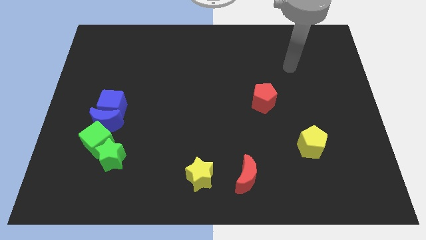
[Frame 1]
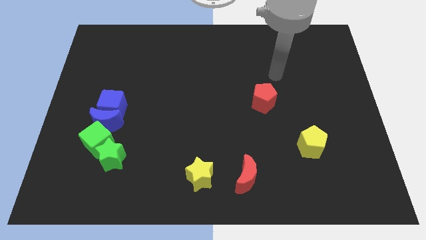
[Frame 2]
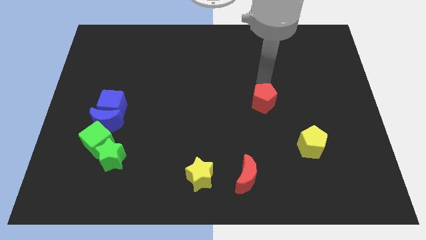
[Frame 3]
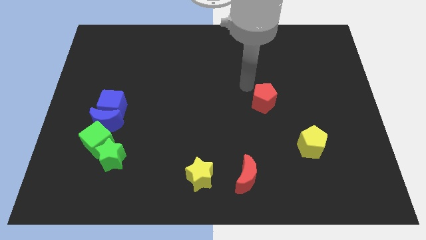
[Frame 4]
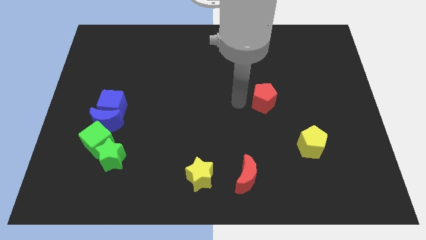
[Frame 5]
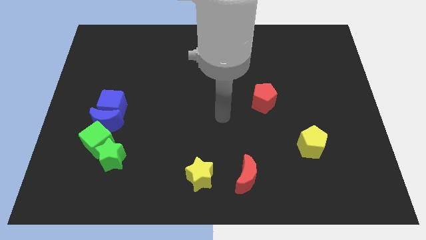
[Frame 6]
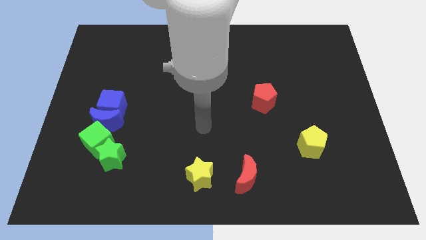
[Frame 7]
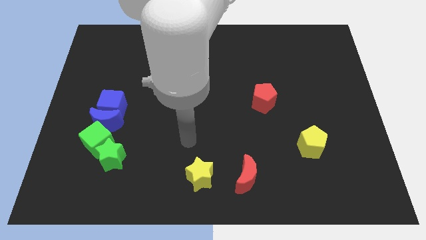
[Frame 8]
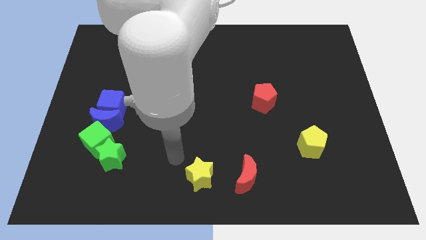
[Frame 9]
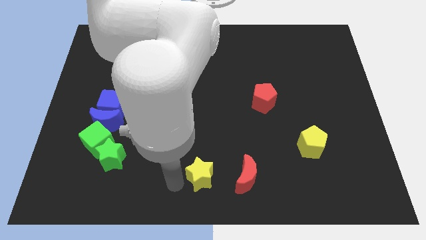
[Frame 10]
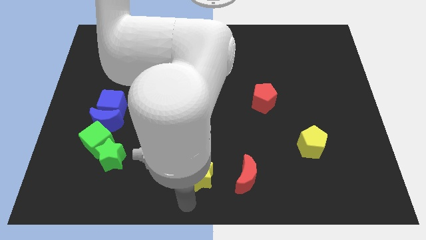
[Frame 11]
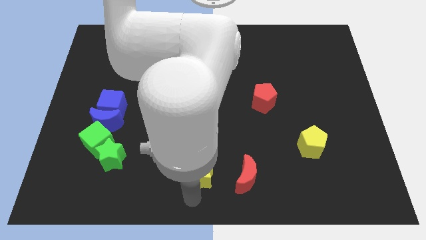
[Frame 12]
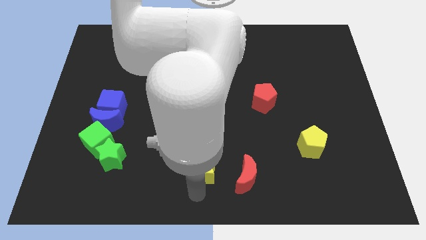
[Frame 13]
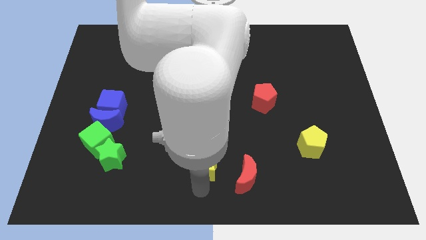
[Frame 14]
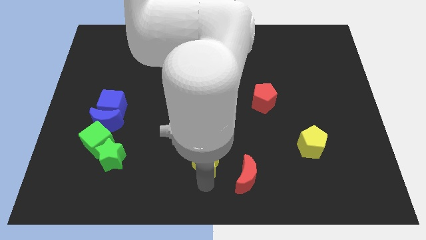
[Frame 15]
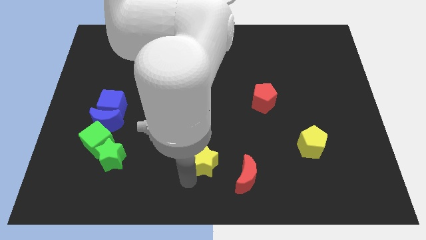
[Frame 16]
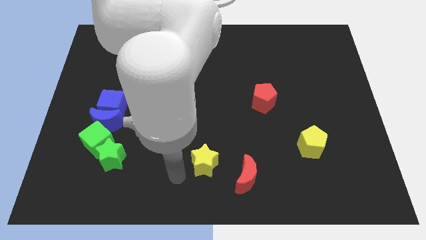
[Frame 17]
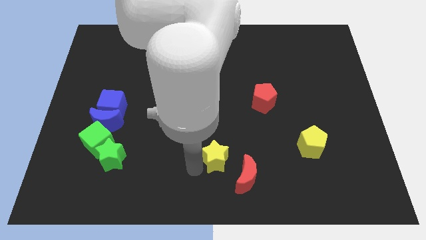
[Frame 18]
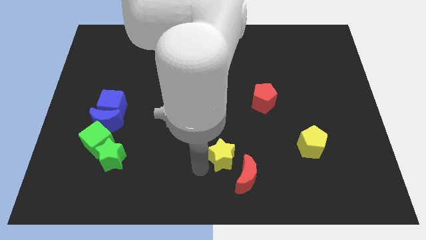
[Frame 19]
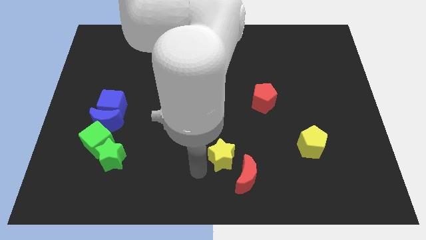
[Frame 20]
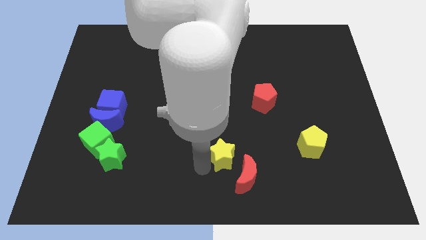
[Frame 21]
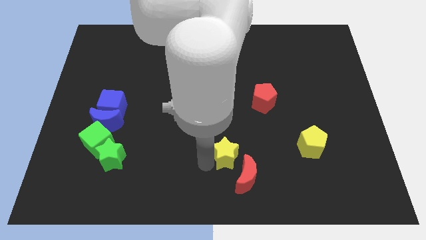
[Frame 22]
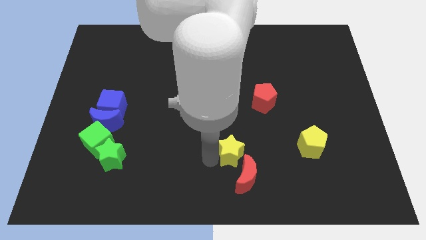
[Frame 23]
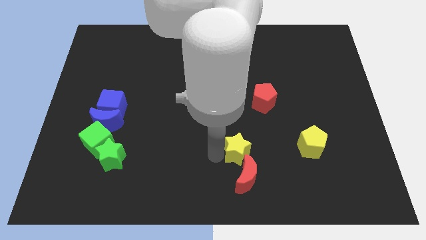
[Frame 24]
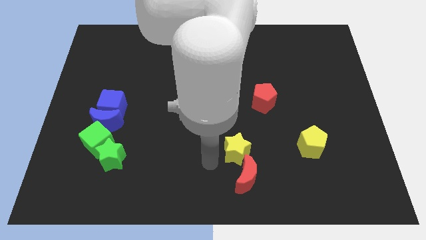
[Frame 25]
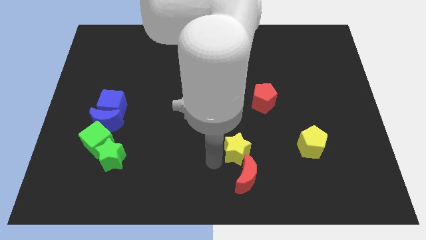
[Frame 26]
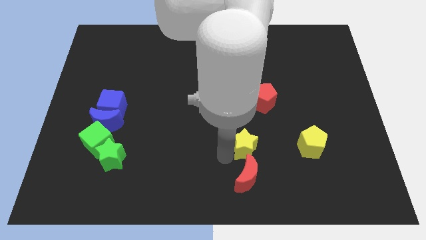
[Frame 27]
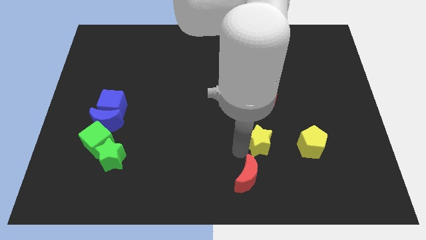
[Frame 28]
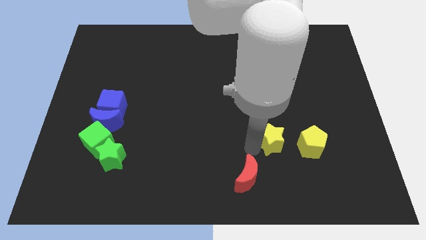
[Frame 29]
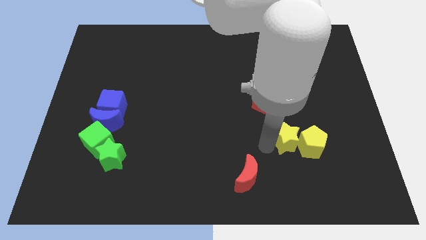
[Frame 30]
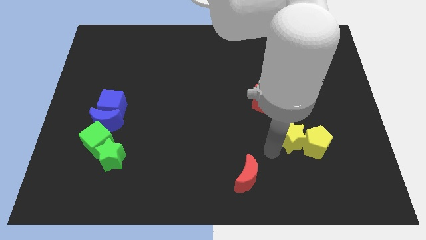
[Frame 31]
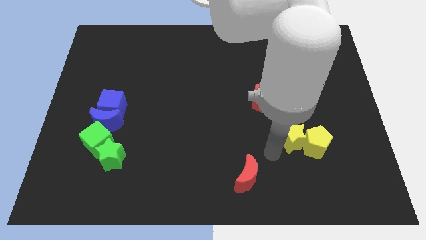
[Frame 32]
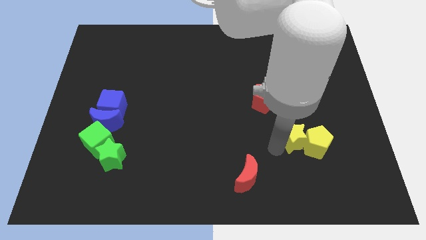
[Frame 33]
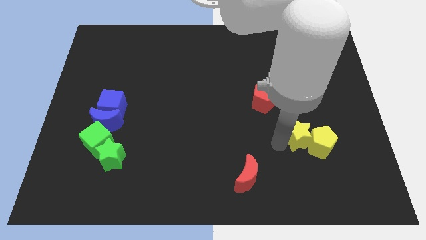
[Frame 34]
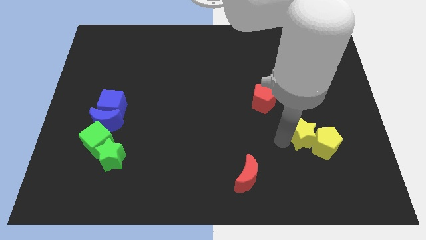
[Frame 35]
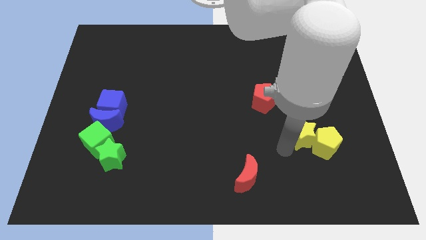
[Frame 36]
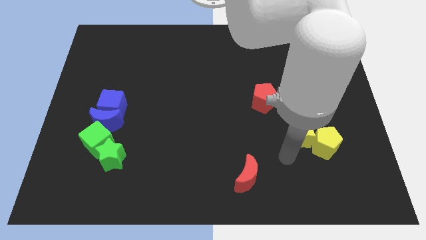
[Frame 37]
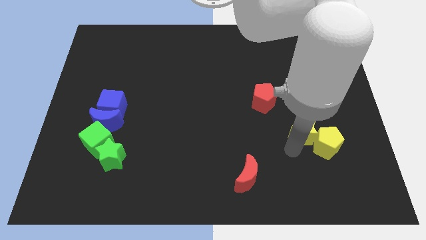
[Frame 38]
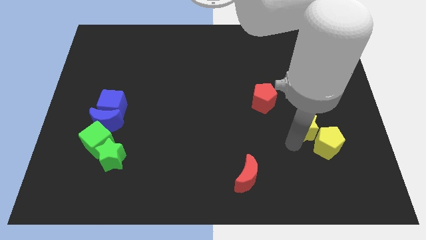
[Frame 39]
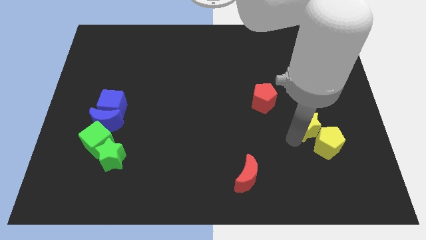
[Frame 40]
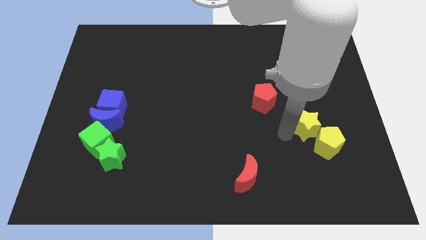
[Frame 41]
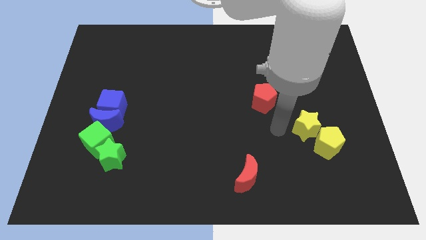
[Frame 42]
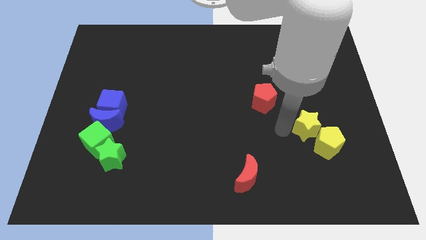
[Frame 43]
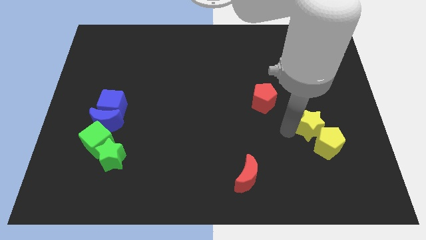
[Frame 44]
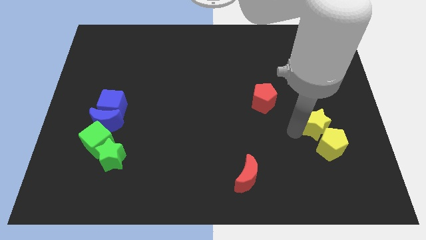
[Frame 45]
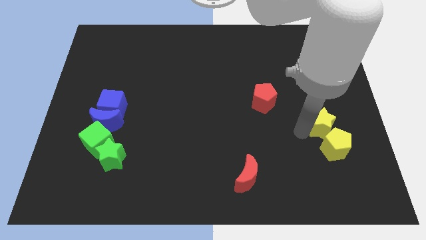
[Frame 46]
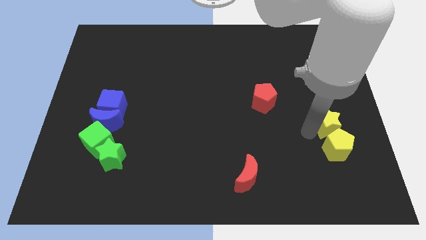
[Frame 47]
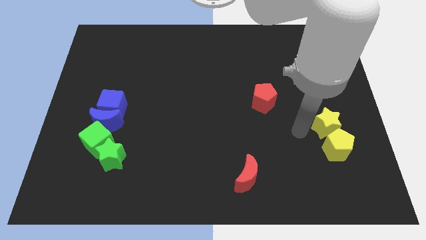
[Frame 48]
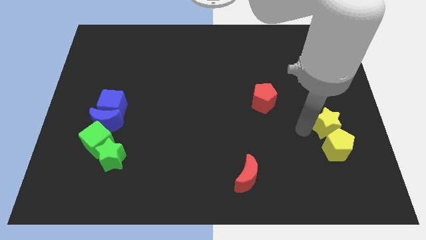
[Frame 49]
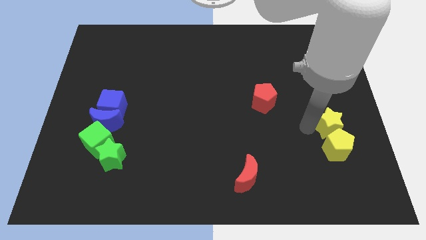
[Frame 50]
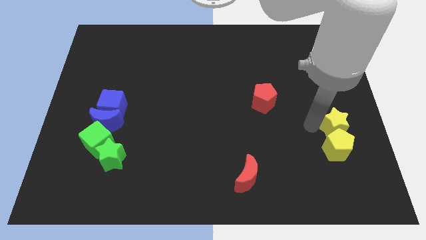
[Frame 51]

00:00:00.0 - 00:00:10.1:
put the yellow star to the right side

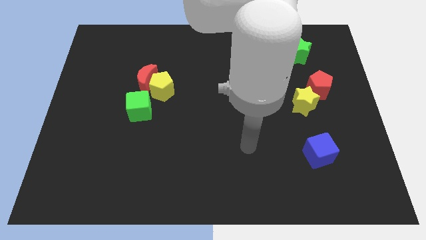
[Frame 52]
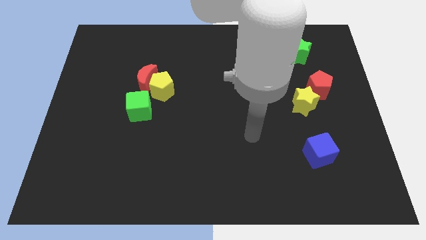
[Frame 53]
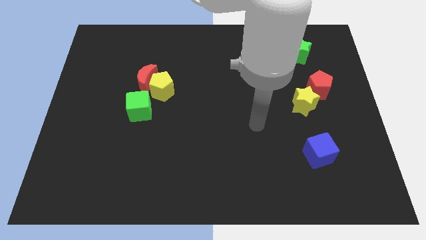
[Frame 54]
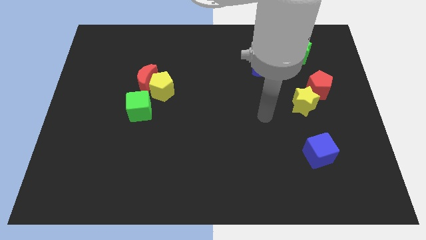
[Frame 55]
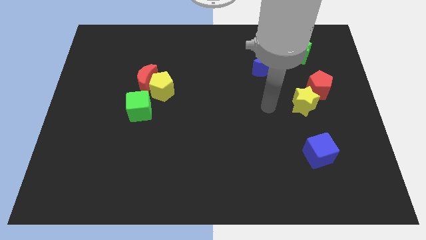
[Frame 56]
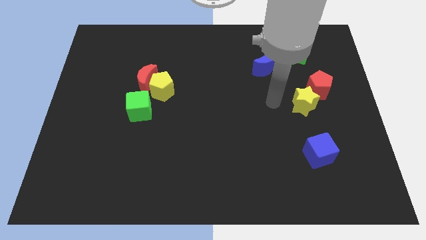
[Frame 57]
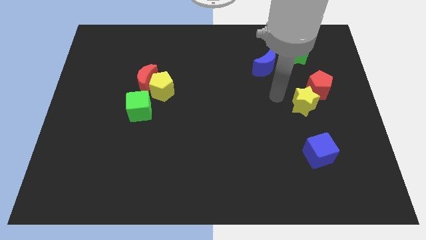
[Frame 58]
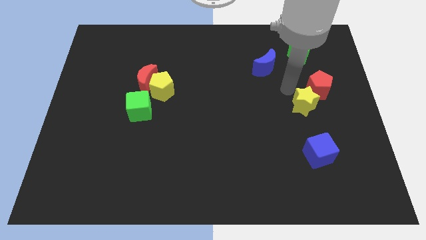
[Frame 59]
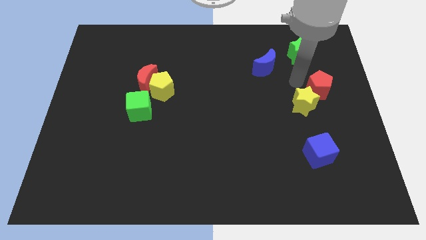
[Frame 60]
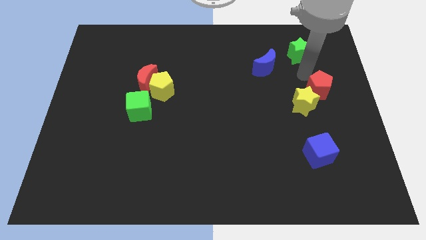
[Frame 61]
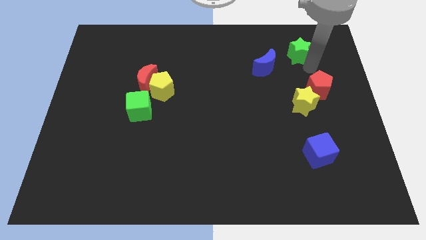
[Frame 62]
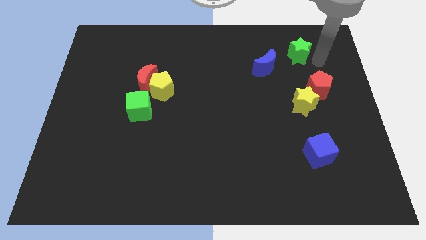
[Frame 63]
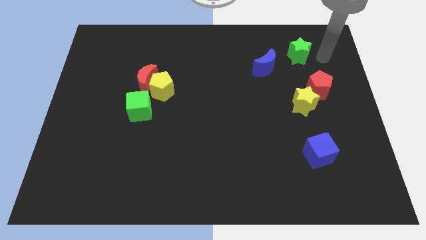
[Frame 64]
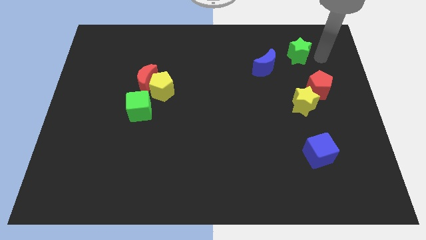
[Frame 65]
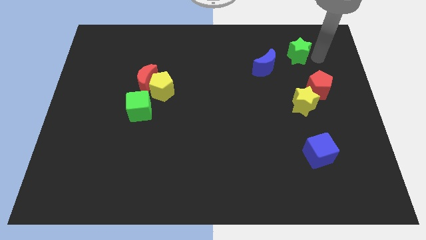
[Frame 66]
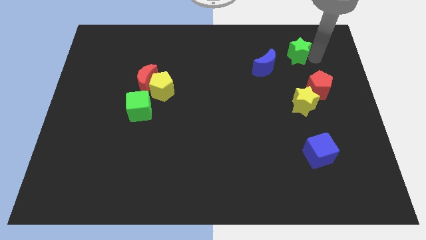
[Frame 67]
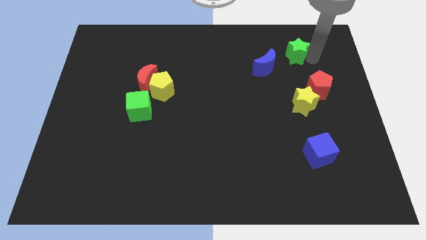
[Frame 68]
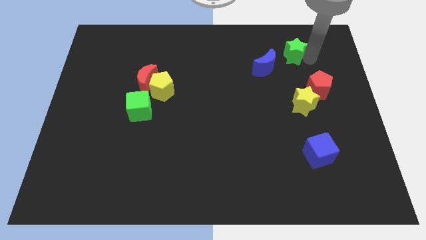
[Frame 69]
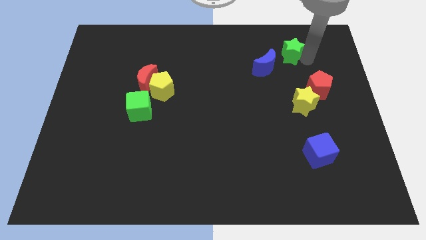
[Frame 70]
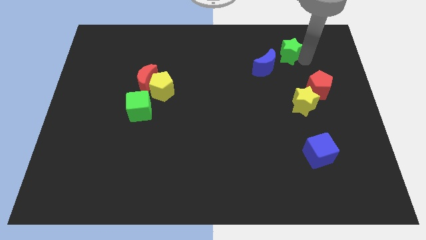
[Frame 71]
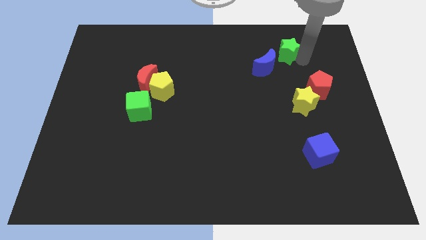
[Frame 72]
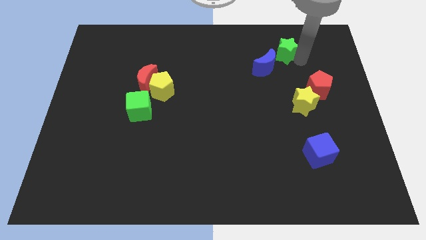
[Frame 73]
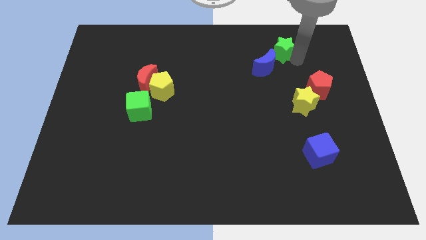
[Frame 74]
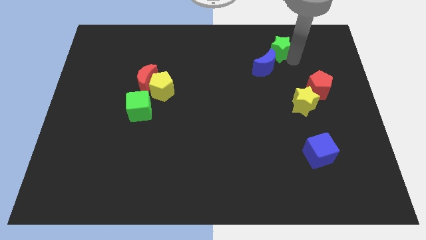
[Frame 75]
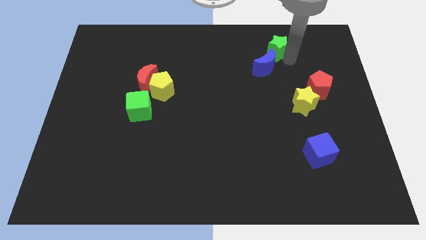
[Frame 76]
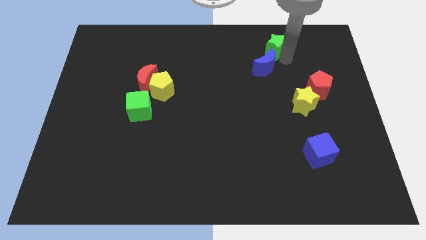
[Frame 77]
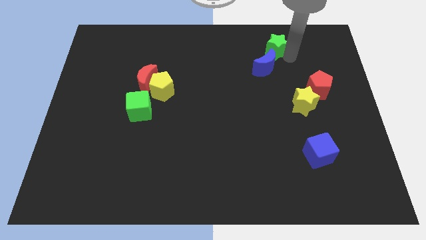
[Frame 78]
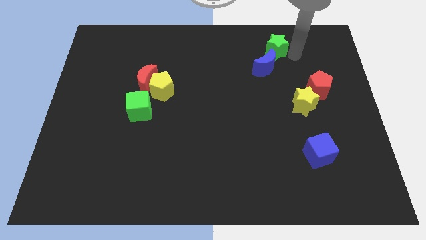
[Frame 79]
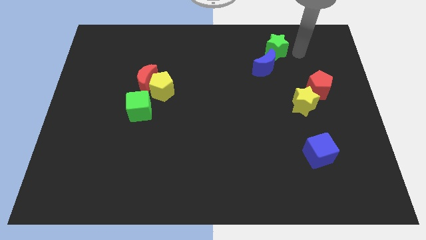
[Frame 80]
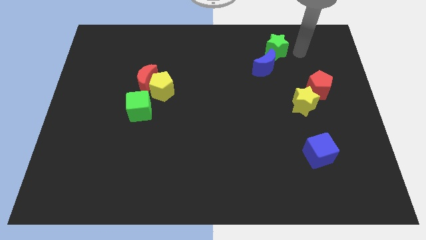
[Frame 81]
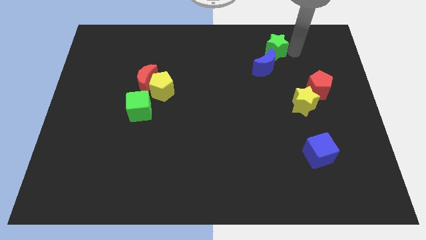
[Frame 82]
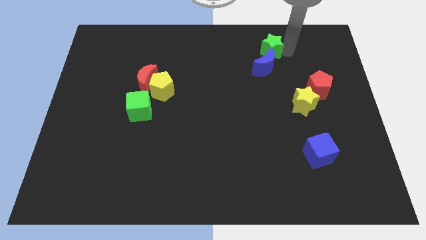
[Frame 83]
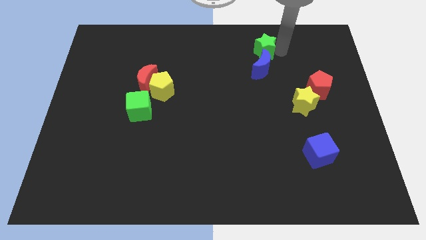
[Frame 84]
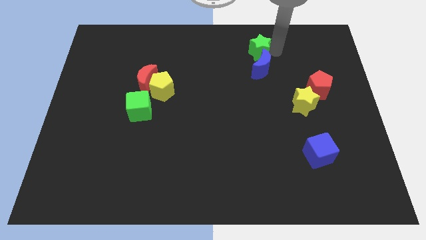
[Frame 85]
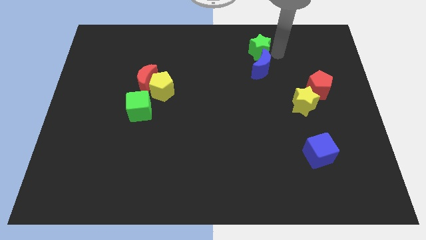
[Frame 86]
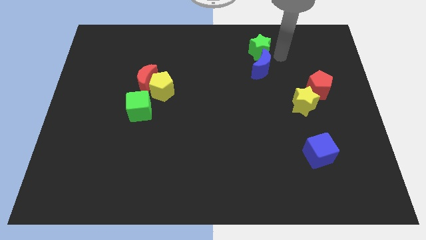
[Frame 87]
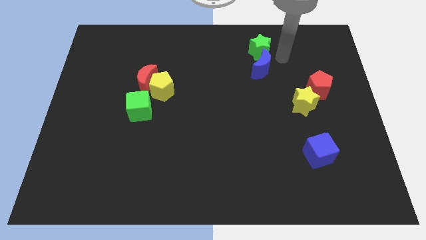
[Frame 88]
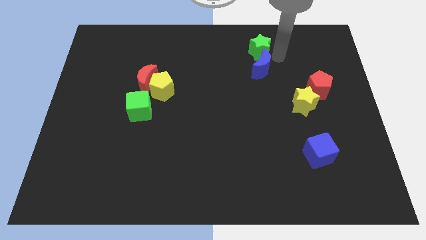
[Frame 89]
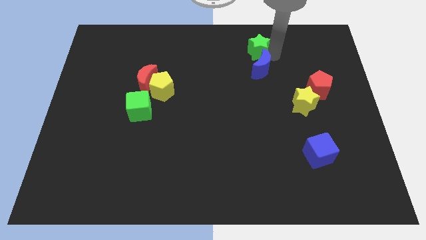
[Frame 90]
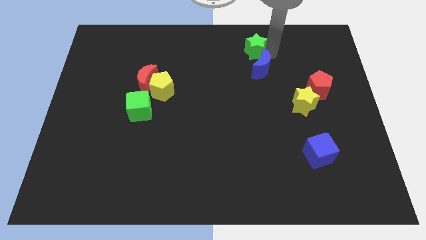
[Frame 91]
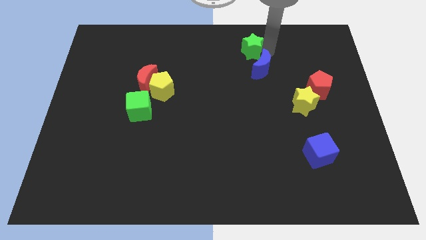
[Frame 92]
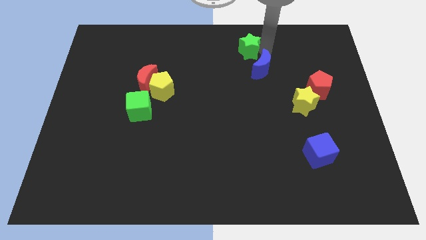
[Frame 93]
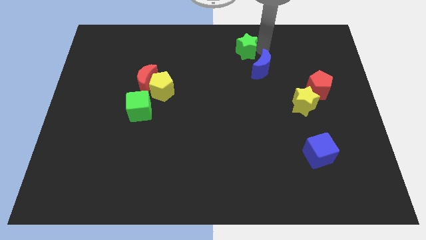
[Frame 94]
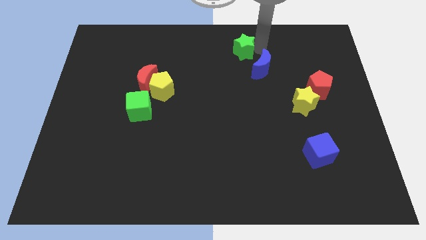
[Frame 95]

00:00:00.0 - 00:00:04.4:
slide the green star to the towards your base
